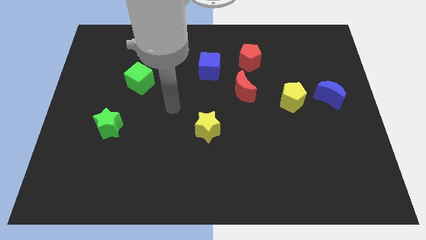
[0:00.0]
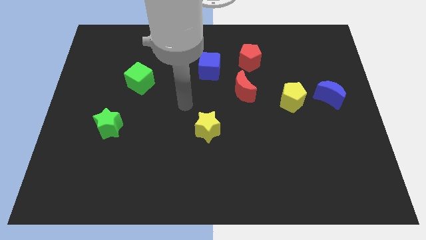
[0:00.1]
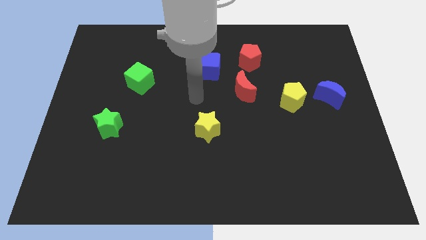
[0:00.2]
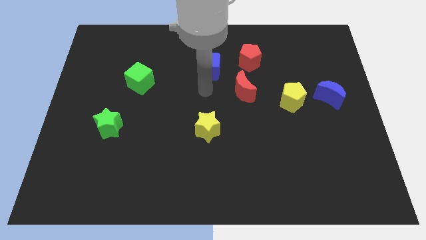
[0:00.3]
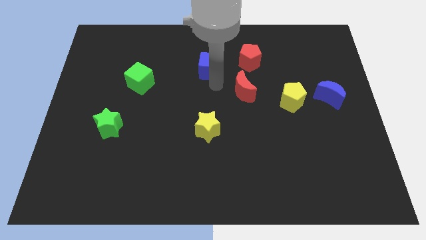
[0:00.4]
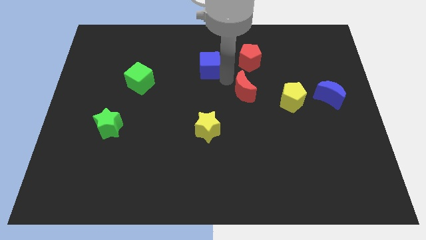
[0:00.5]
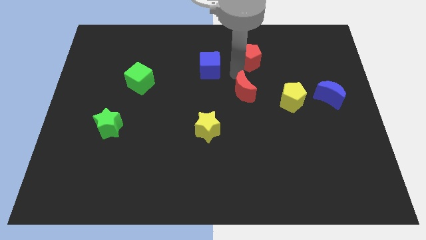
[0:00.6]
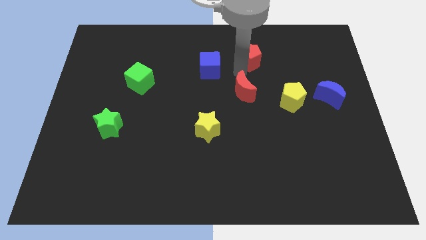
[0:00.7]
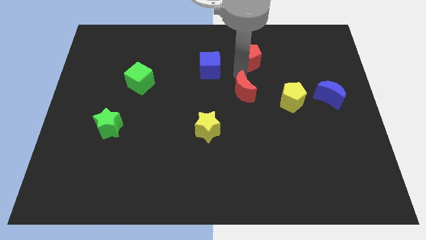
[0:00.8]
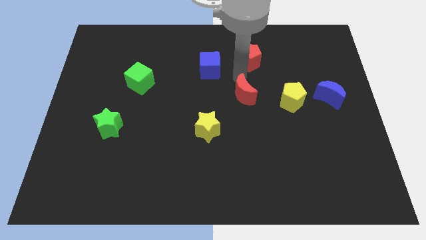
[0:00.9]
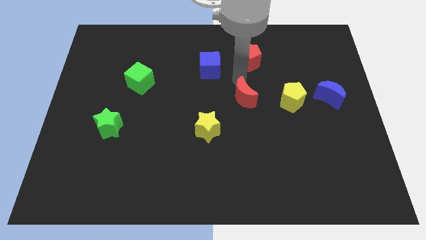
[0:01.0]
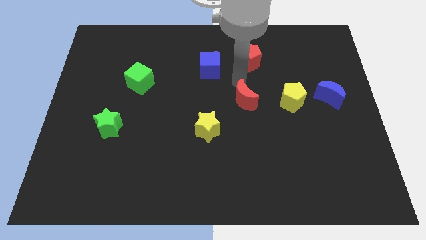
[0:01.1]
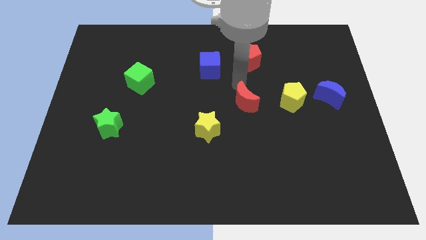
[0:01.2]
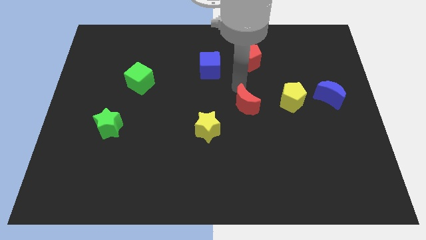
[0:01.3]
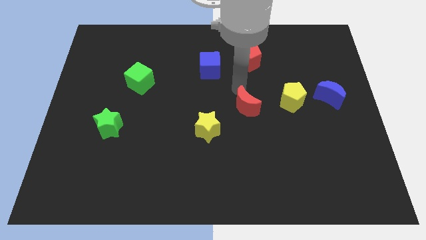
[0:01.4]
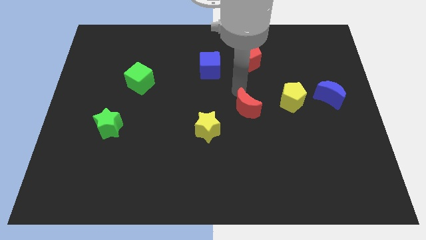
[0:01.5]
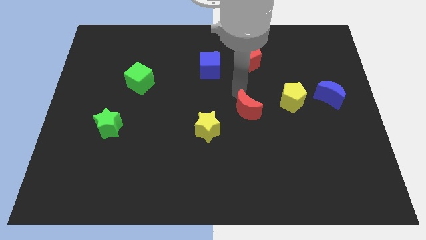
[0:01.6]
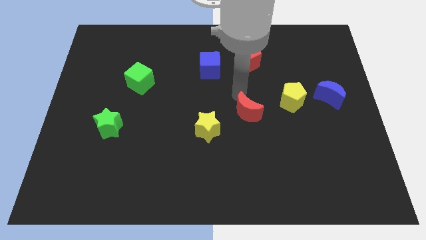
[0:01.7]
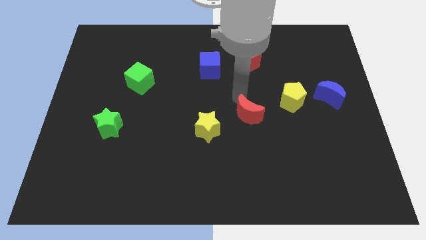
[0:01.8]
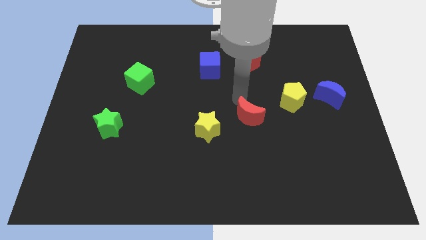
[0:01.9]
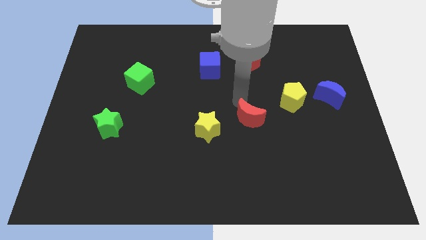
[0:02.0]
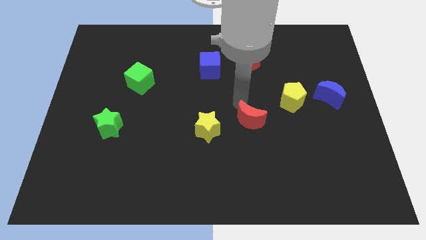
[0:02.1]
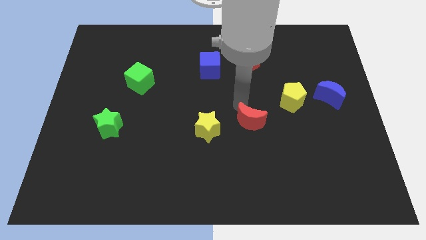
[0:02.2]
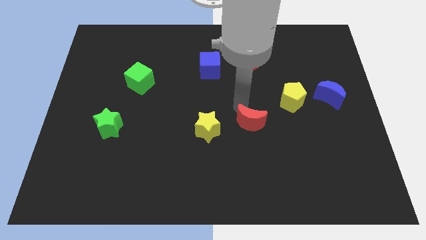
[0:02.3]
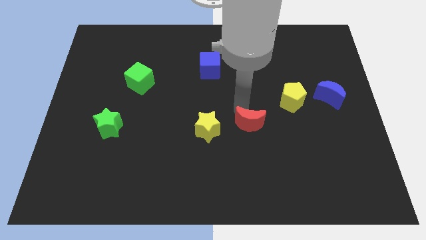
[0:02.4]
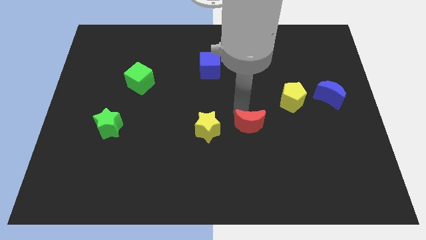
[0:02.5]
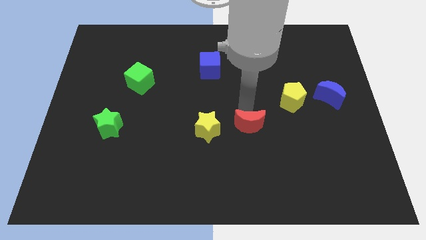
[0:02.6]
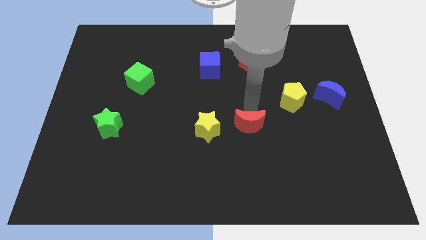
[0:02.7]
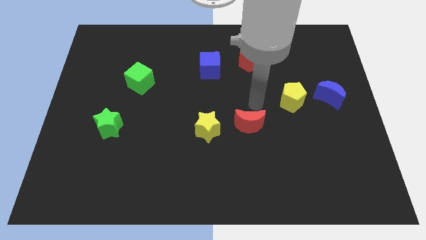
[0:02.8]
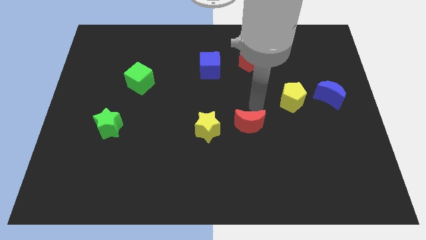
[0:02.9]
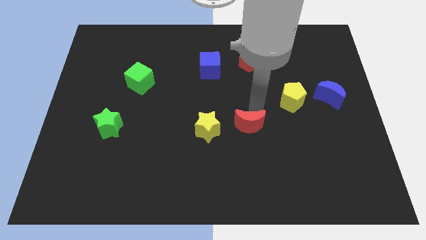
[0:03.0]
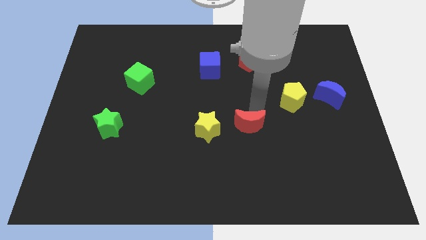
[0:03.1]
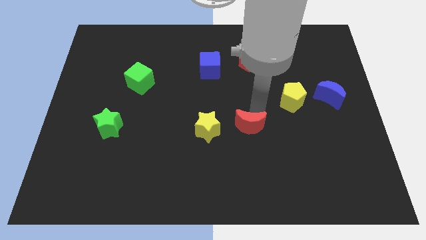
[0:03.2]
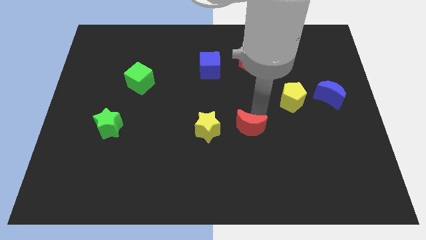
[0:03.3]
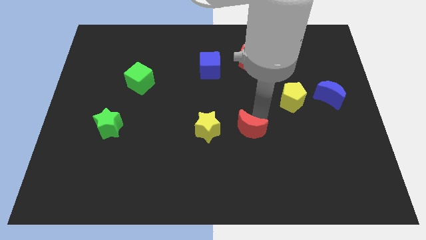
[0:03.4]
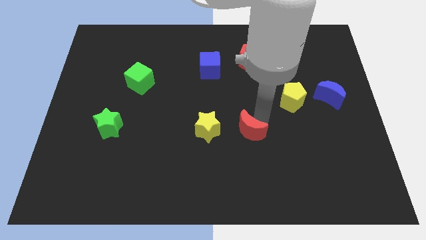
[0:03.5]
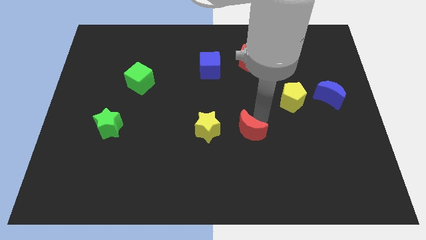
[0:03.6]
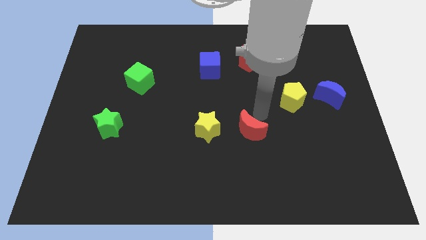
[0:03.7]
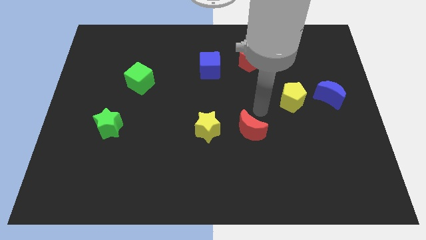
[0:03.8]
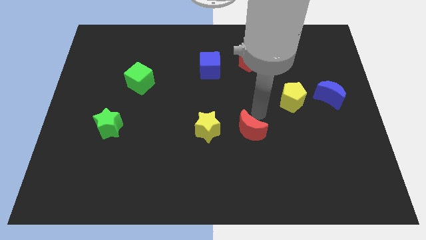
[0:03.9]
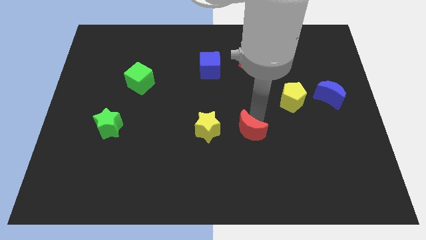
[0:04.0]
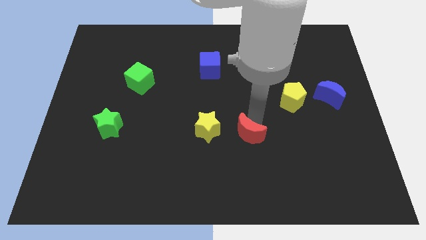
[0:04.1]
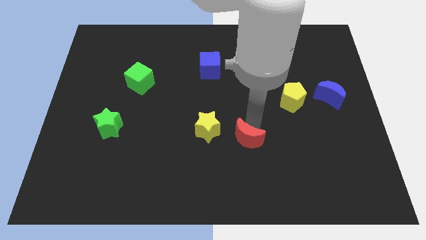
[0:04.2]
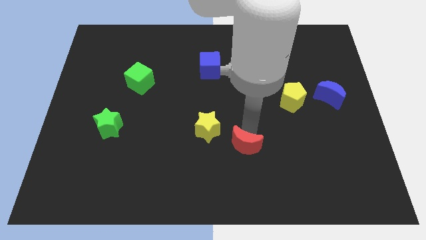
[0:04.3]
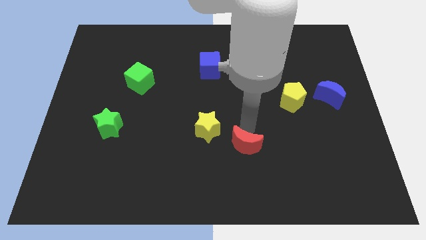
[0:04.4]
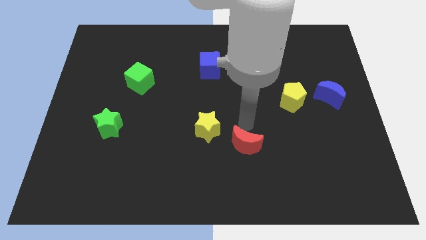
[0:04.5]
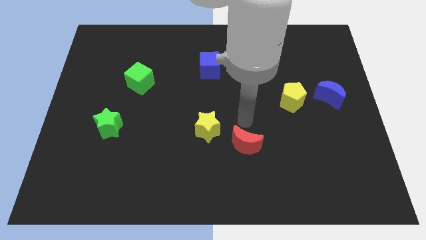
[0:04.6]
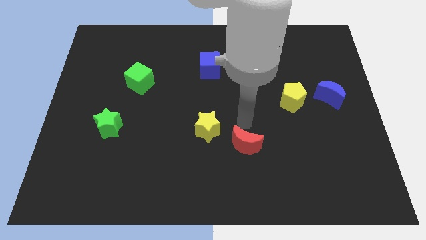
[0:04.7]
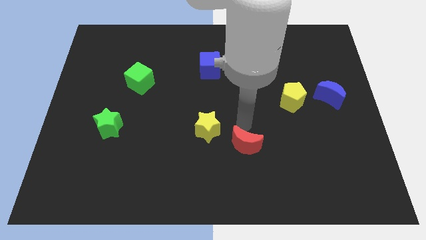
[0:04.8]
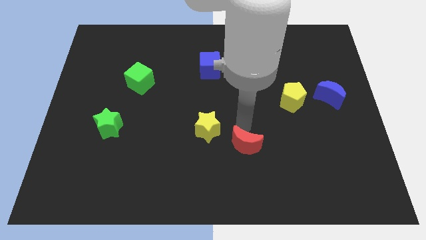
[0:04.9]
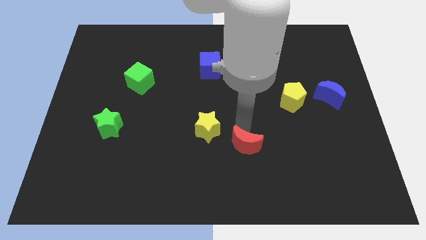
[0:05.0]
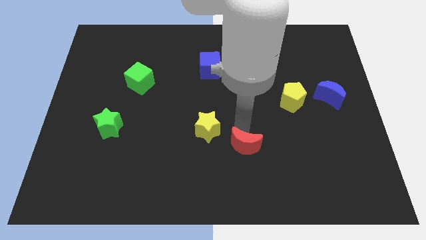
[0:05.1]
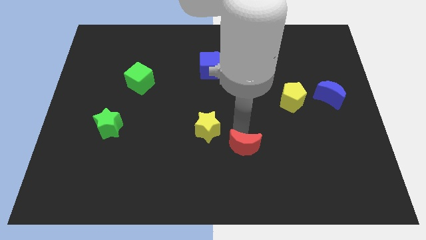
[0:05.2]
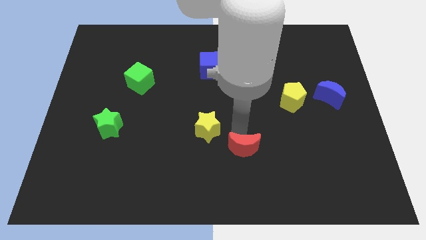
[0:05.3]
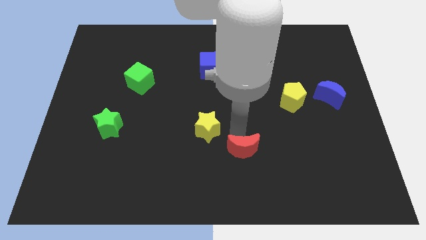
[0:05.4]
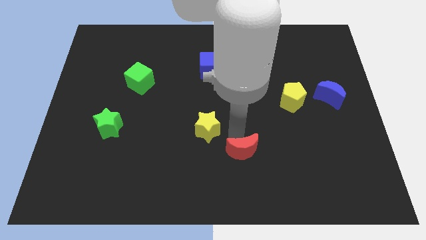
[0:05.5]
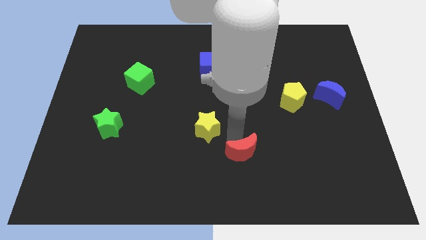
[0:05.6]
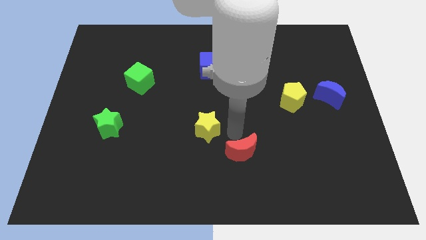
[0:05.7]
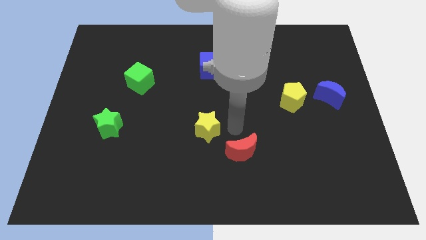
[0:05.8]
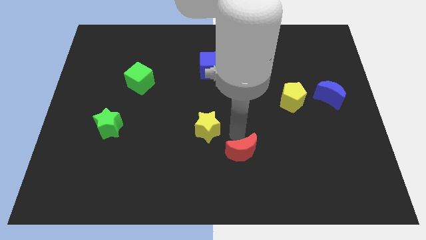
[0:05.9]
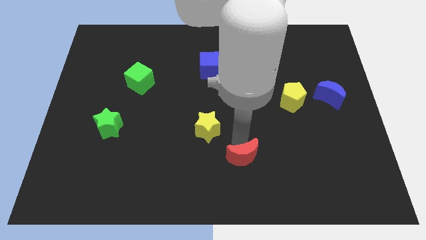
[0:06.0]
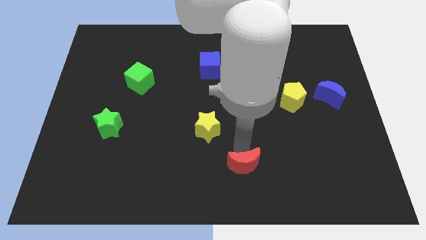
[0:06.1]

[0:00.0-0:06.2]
push the red moon to the bottom side

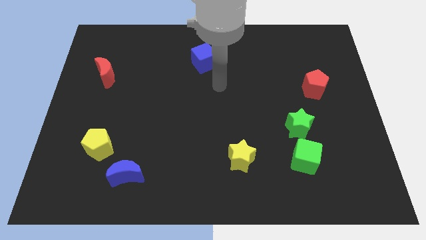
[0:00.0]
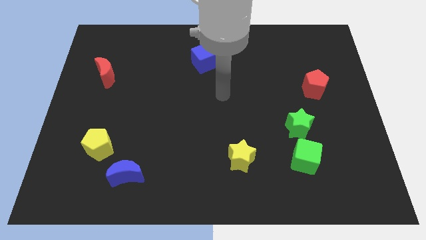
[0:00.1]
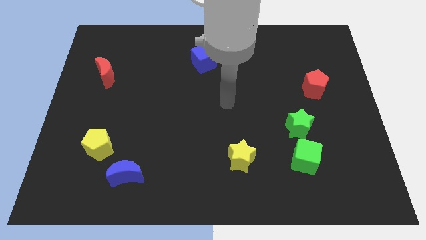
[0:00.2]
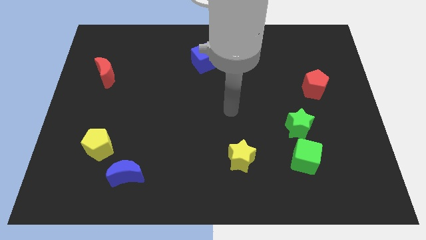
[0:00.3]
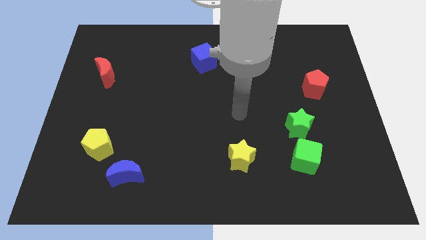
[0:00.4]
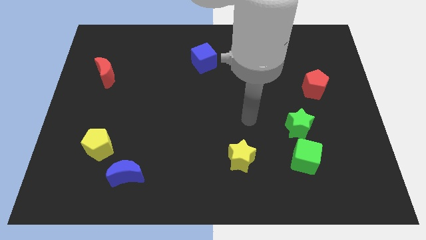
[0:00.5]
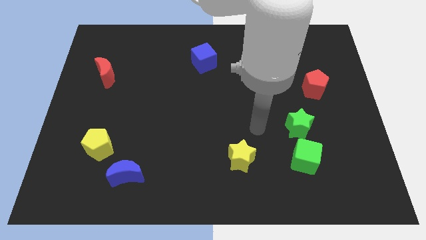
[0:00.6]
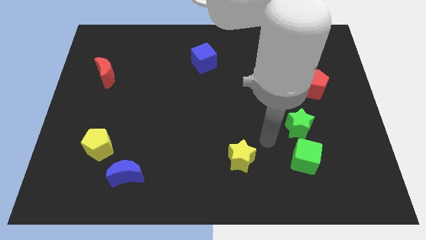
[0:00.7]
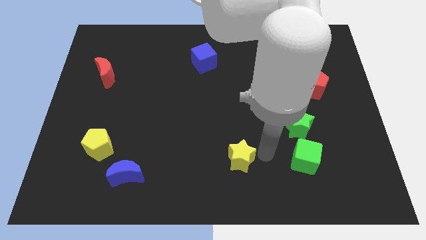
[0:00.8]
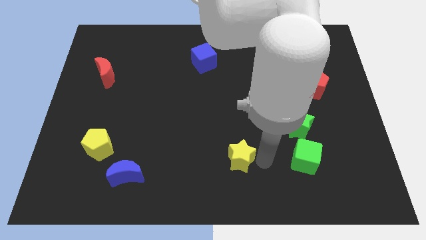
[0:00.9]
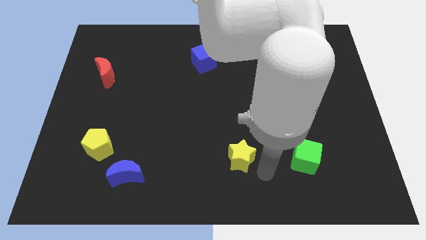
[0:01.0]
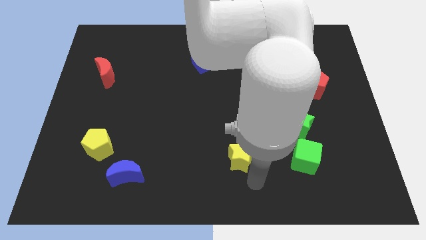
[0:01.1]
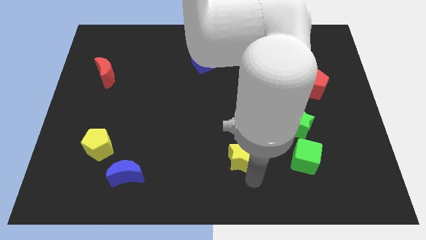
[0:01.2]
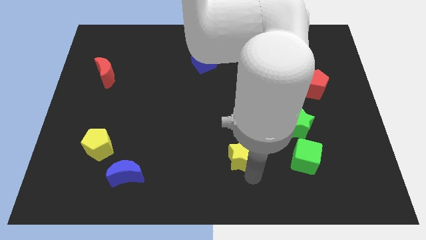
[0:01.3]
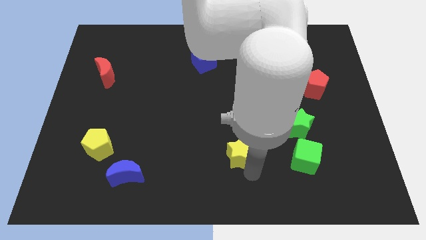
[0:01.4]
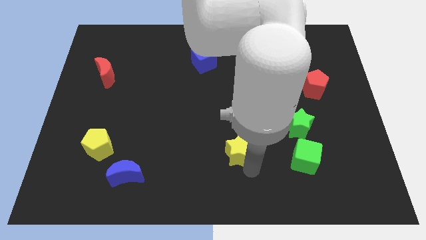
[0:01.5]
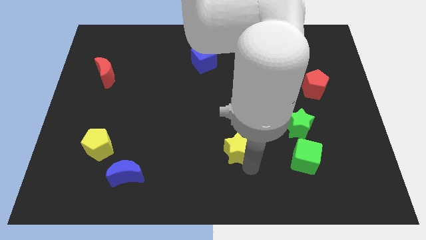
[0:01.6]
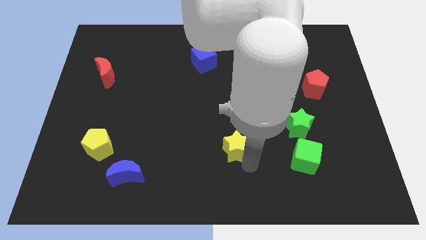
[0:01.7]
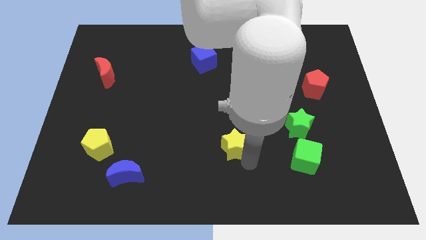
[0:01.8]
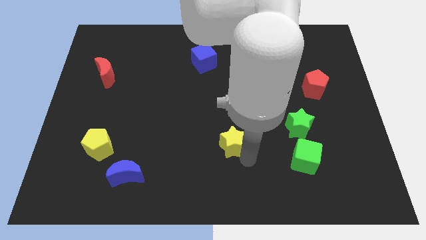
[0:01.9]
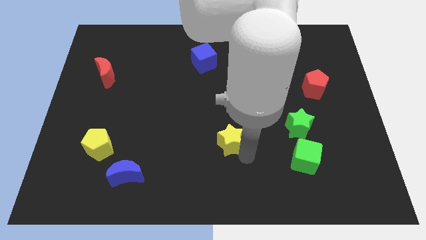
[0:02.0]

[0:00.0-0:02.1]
put the yellow star to the middle of the board
